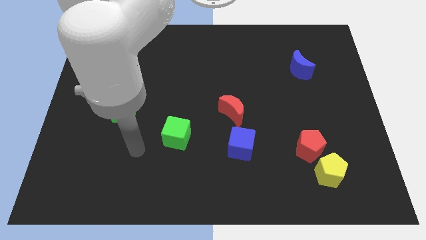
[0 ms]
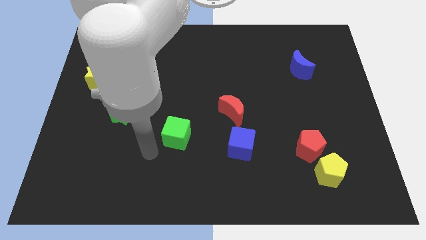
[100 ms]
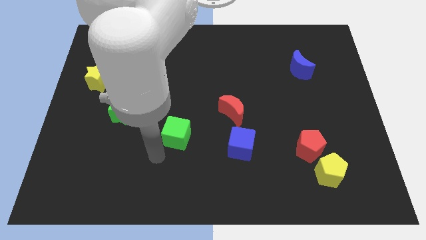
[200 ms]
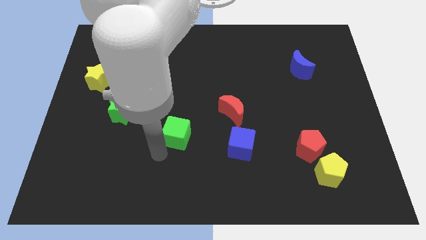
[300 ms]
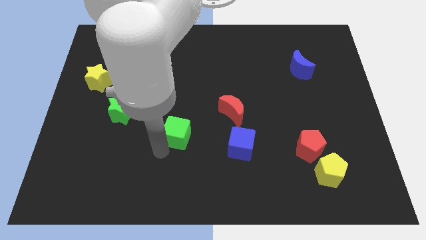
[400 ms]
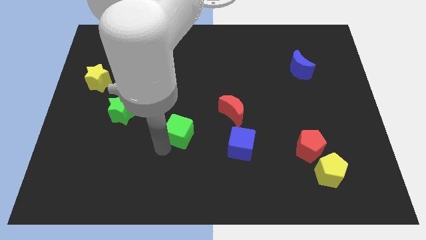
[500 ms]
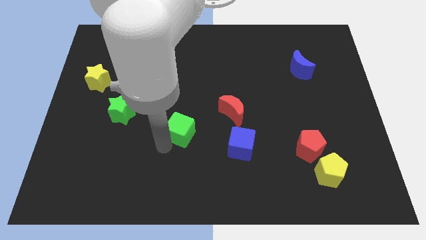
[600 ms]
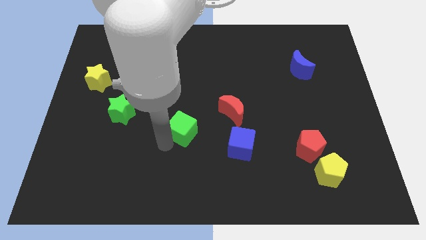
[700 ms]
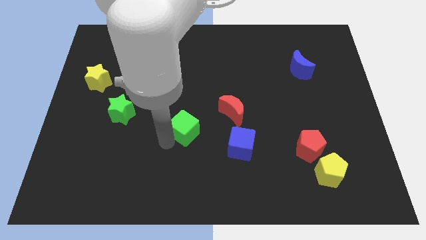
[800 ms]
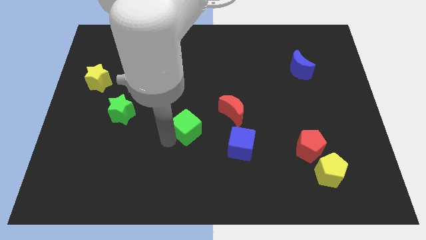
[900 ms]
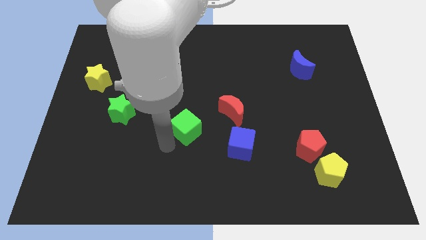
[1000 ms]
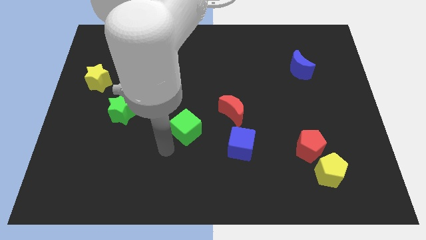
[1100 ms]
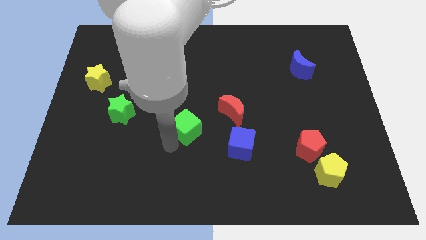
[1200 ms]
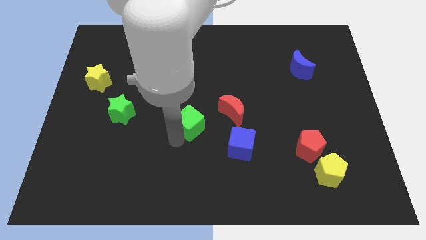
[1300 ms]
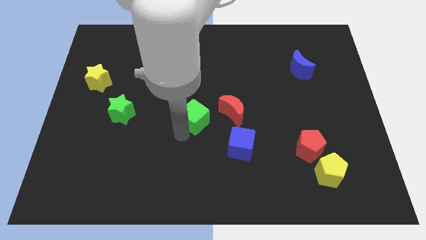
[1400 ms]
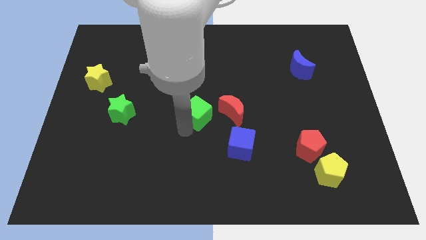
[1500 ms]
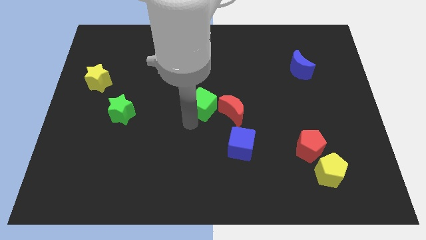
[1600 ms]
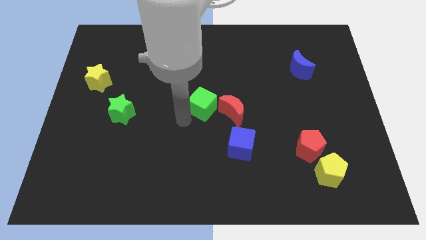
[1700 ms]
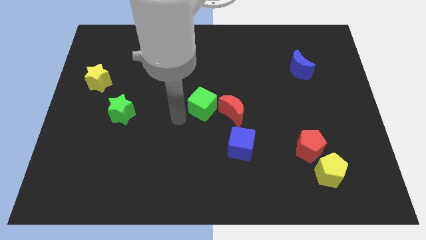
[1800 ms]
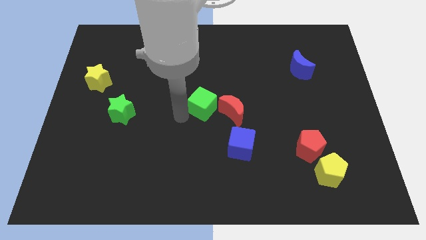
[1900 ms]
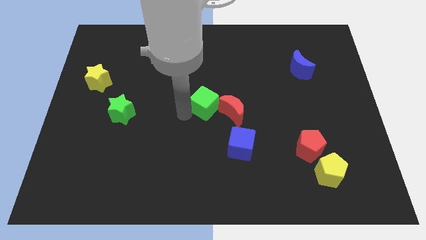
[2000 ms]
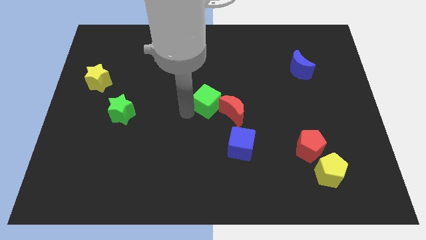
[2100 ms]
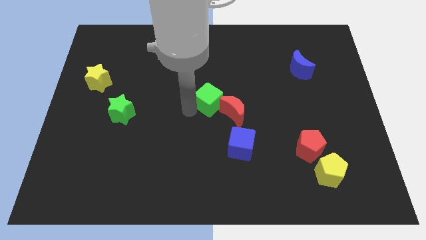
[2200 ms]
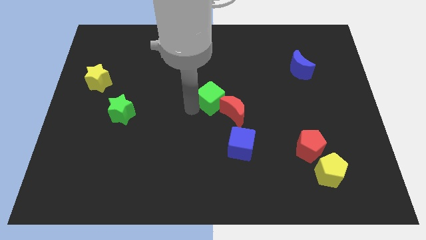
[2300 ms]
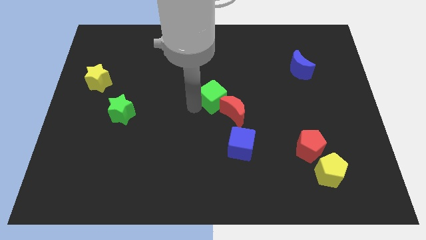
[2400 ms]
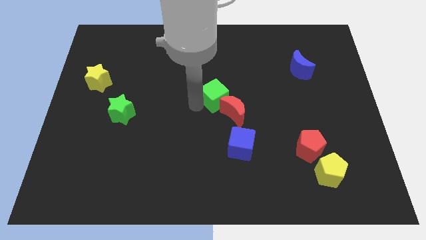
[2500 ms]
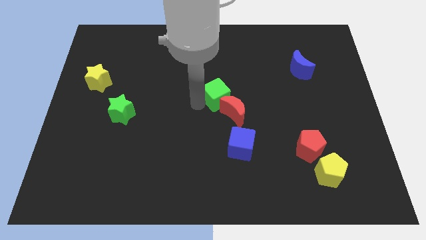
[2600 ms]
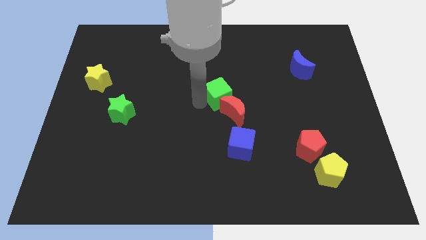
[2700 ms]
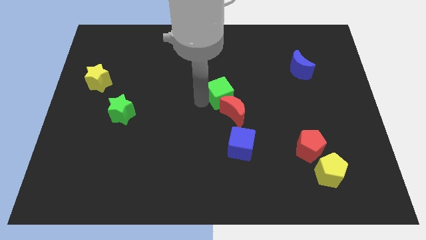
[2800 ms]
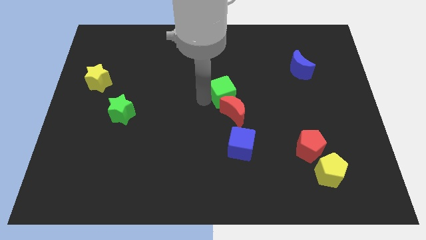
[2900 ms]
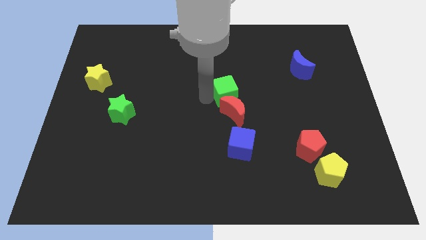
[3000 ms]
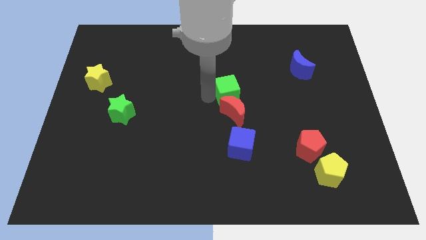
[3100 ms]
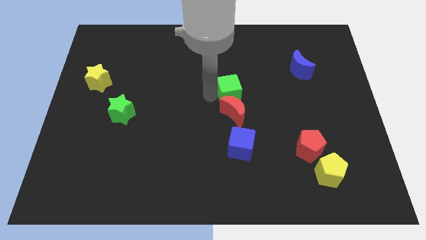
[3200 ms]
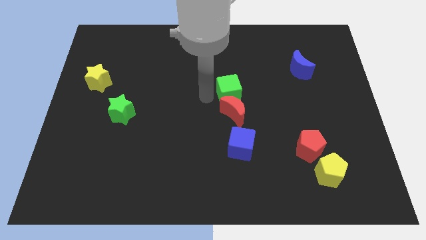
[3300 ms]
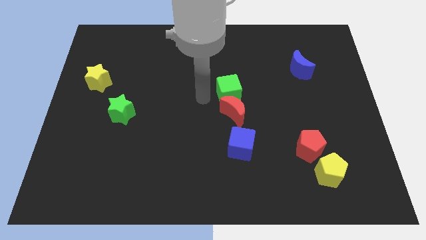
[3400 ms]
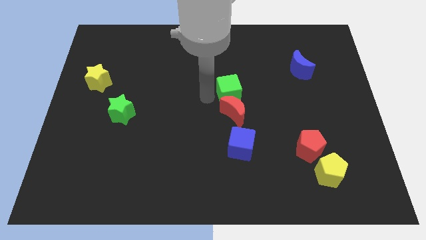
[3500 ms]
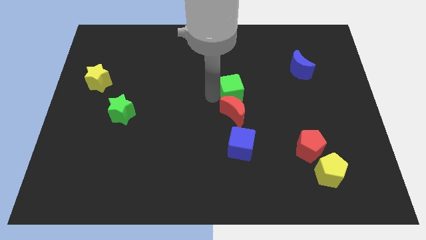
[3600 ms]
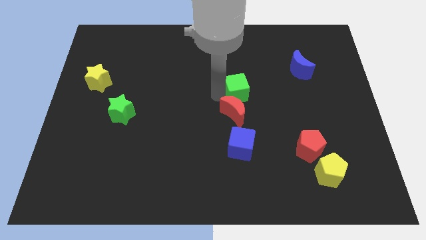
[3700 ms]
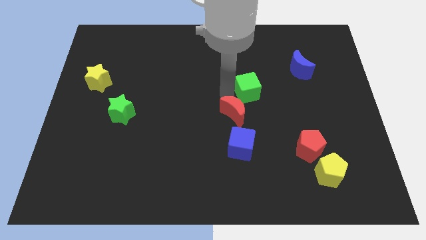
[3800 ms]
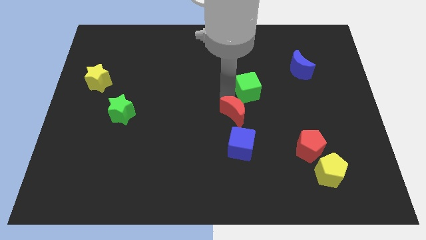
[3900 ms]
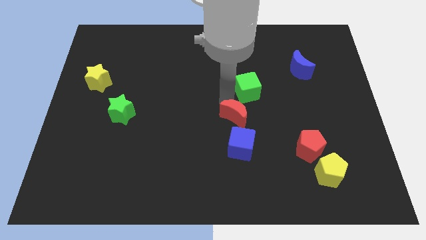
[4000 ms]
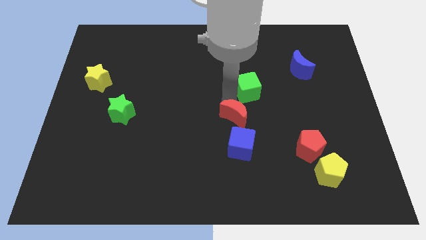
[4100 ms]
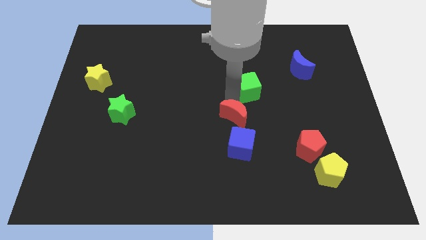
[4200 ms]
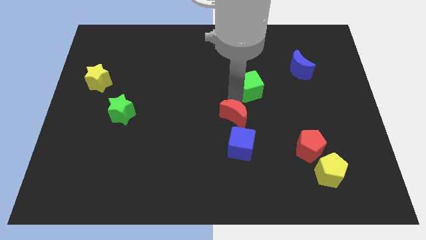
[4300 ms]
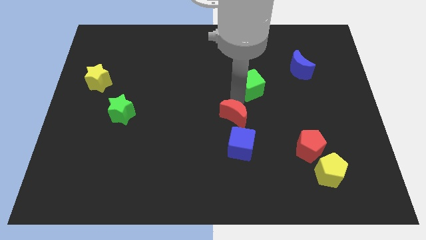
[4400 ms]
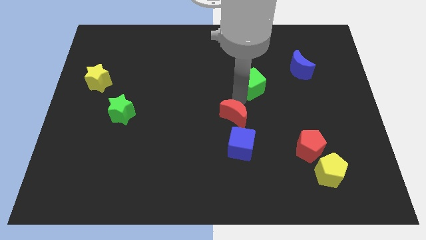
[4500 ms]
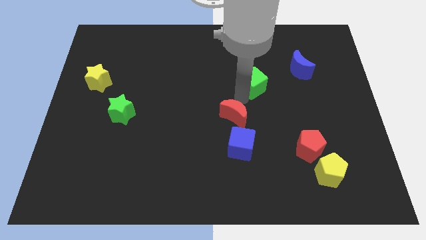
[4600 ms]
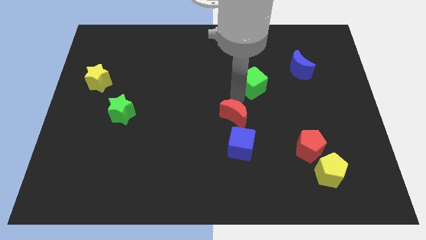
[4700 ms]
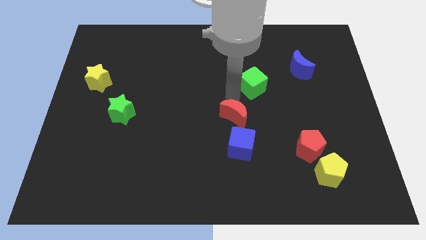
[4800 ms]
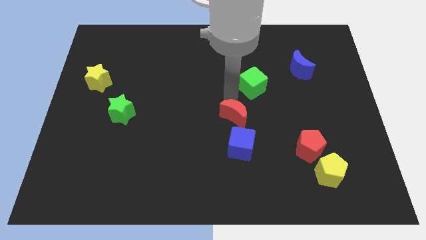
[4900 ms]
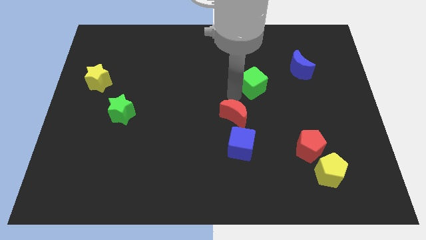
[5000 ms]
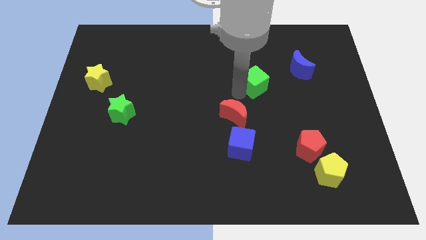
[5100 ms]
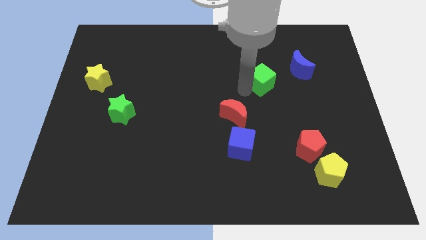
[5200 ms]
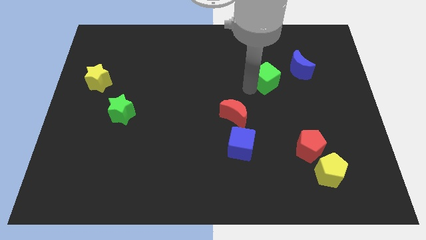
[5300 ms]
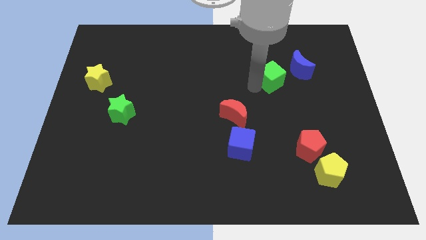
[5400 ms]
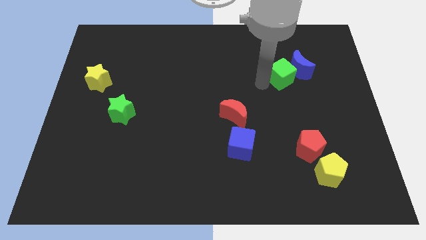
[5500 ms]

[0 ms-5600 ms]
put the green cube close to the blue moon
